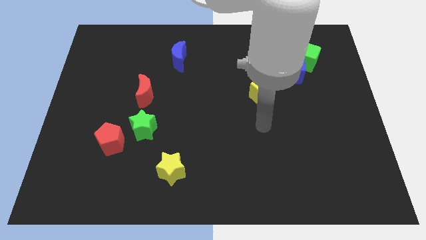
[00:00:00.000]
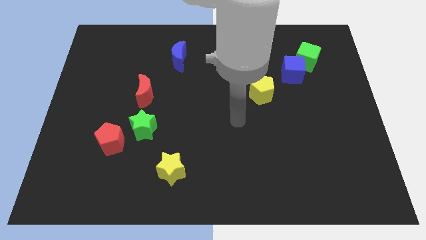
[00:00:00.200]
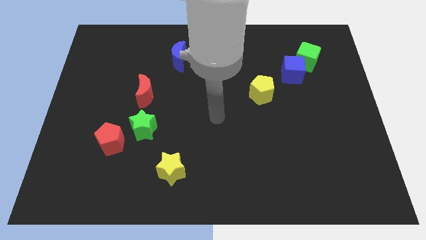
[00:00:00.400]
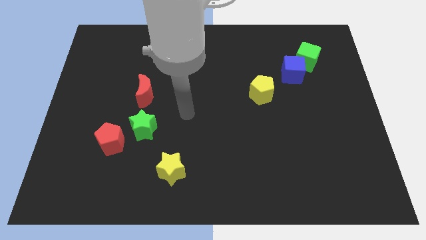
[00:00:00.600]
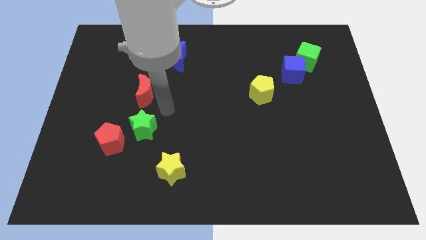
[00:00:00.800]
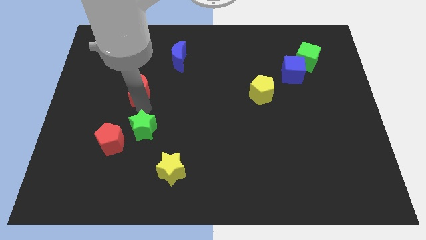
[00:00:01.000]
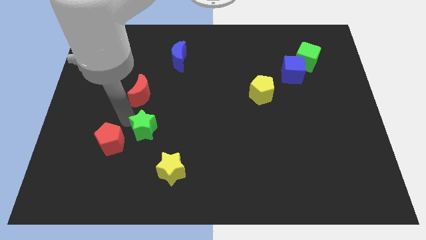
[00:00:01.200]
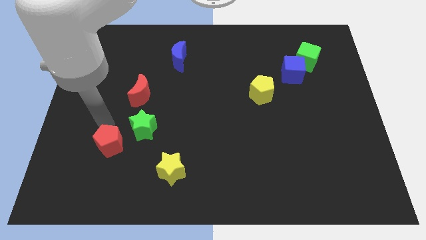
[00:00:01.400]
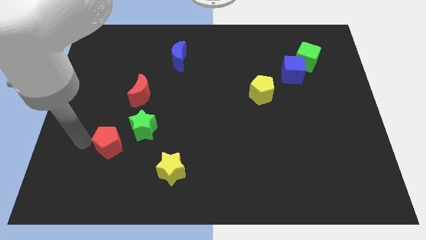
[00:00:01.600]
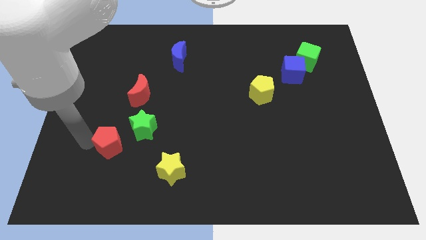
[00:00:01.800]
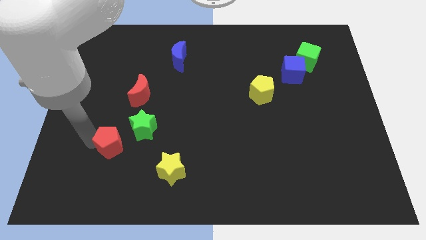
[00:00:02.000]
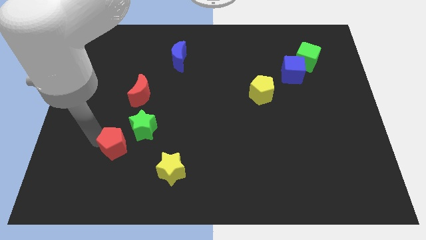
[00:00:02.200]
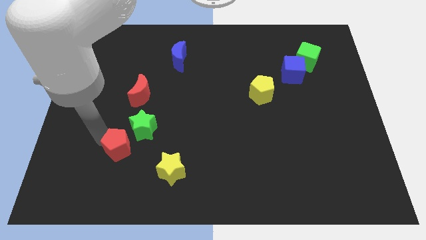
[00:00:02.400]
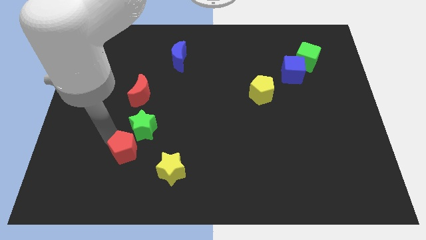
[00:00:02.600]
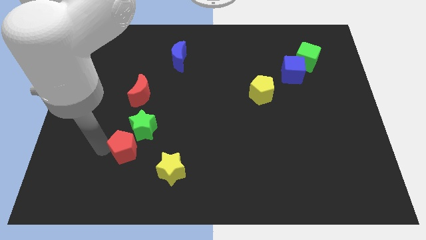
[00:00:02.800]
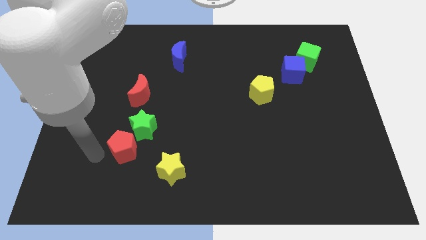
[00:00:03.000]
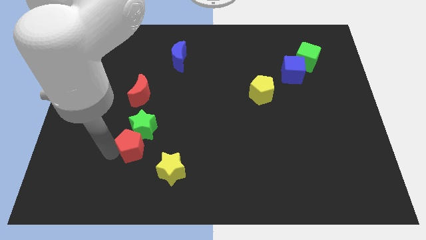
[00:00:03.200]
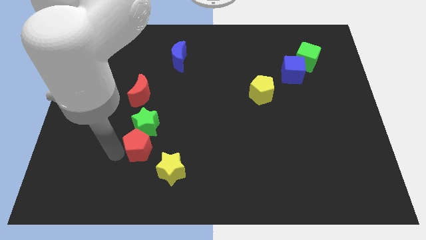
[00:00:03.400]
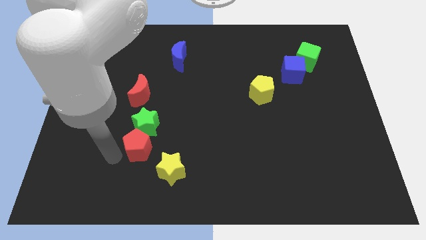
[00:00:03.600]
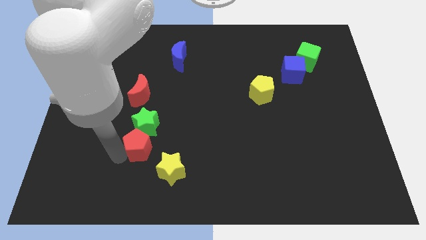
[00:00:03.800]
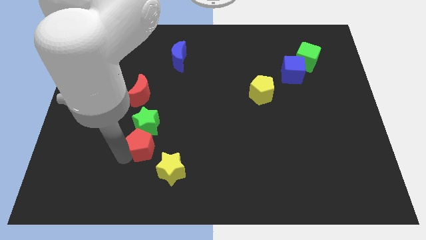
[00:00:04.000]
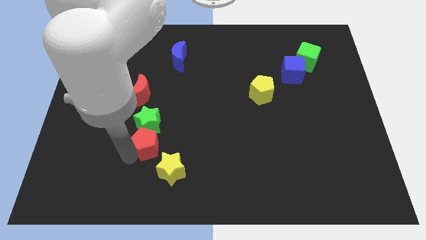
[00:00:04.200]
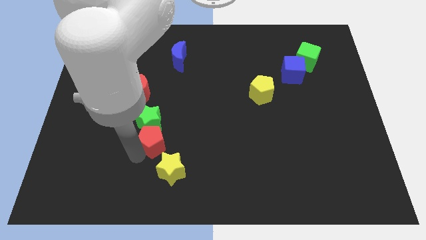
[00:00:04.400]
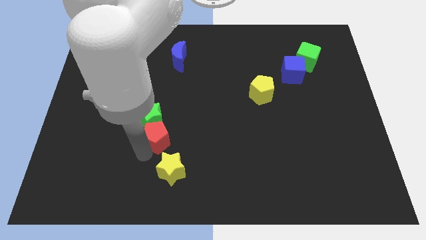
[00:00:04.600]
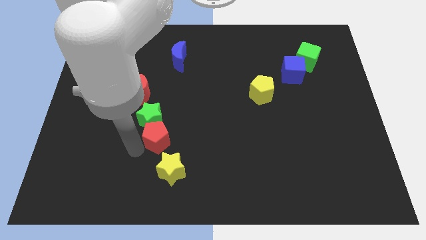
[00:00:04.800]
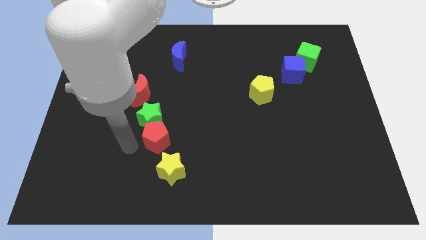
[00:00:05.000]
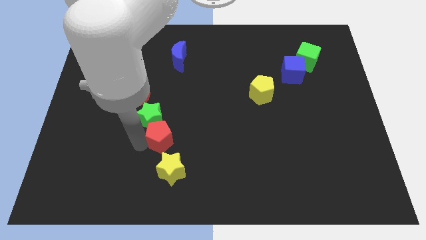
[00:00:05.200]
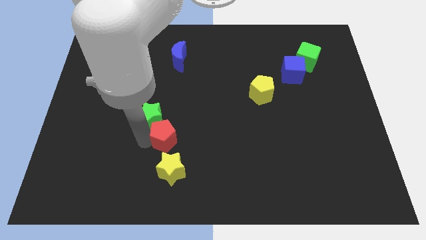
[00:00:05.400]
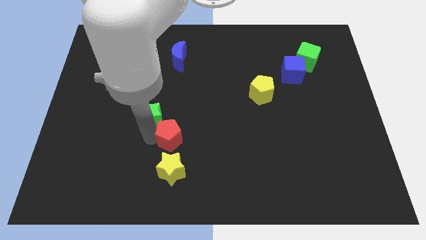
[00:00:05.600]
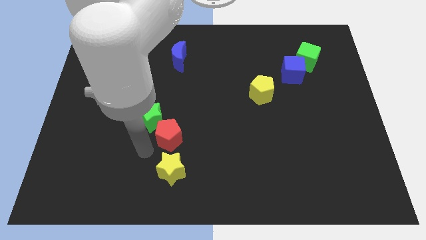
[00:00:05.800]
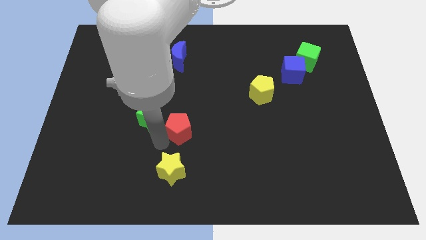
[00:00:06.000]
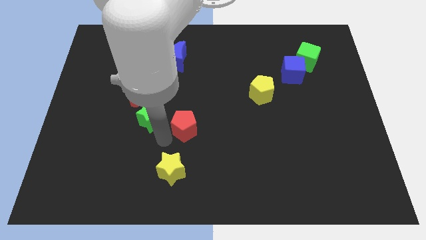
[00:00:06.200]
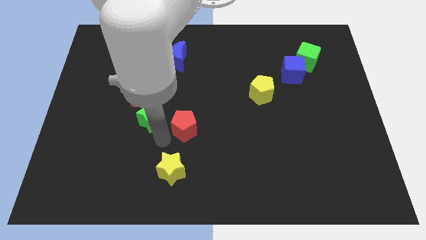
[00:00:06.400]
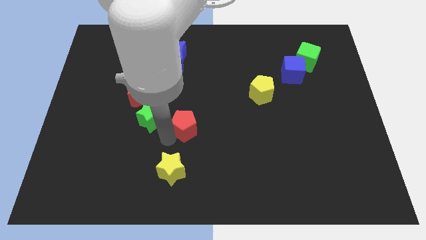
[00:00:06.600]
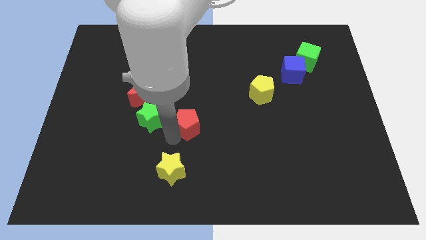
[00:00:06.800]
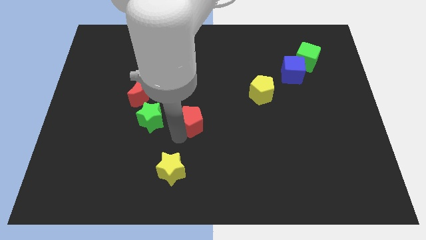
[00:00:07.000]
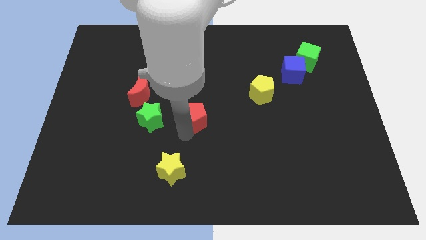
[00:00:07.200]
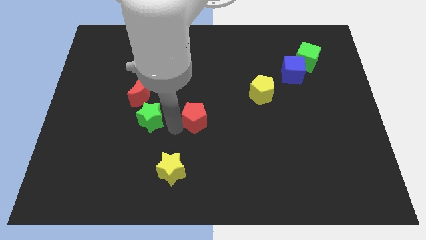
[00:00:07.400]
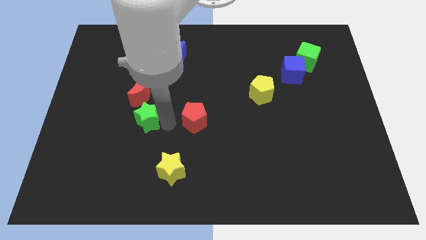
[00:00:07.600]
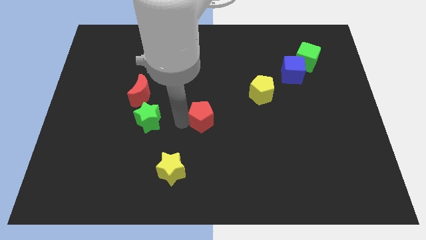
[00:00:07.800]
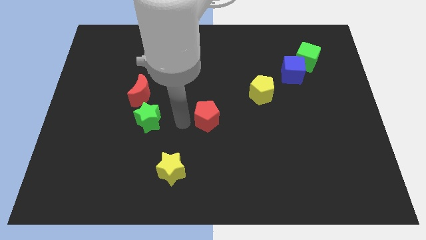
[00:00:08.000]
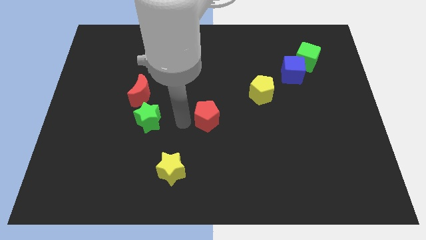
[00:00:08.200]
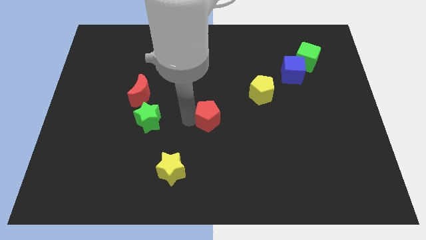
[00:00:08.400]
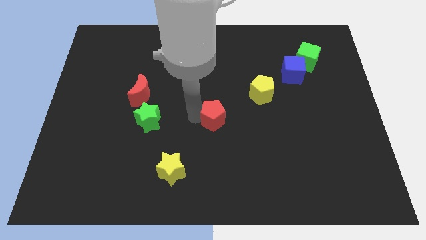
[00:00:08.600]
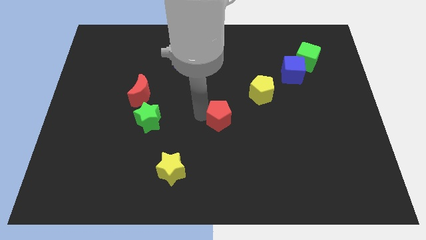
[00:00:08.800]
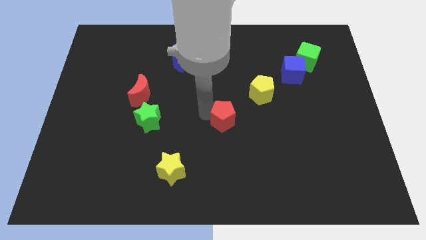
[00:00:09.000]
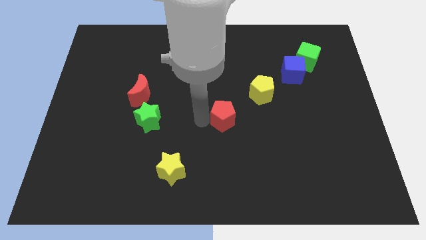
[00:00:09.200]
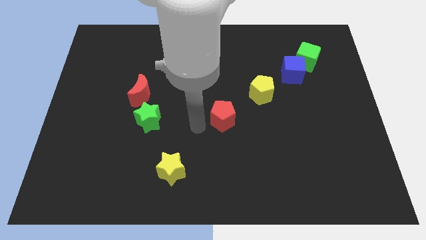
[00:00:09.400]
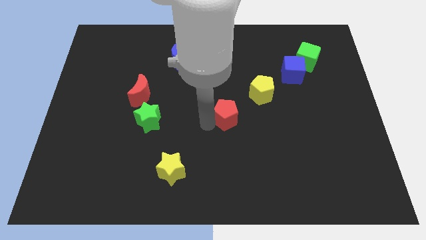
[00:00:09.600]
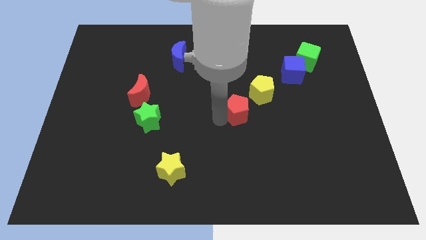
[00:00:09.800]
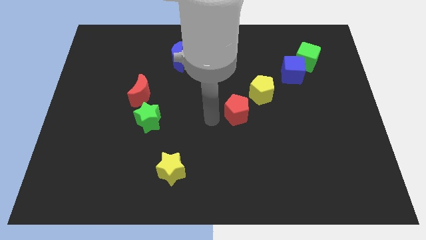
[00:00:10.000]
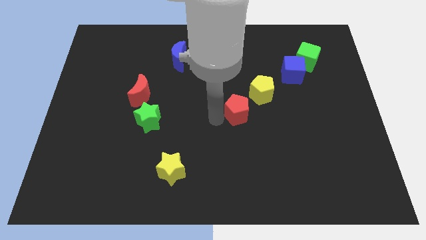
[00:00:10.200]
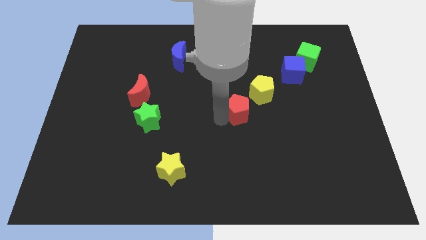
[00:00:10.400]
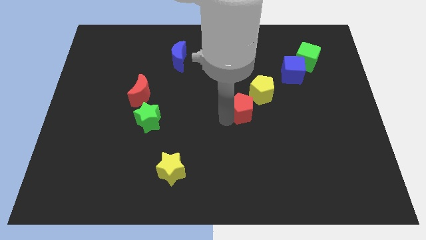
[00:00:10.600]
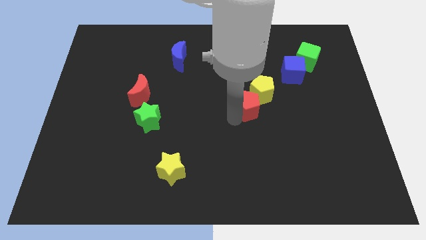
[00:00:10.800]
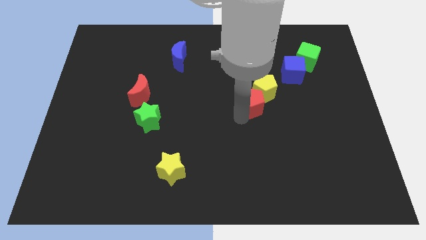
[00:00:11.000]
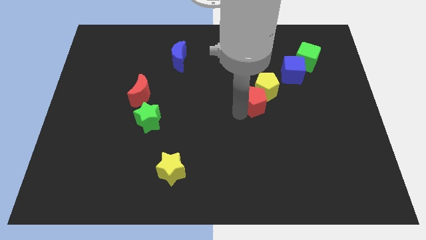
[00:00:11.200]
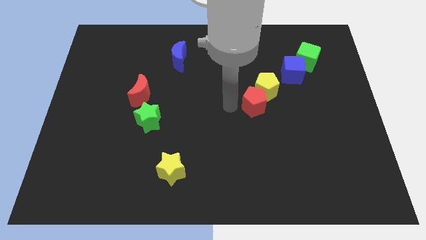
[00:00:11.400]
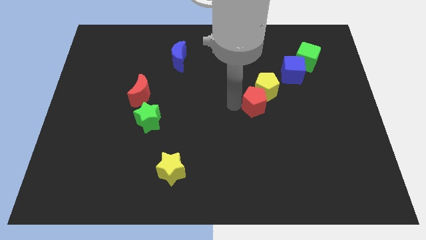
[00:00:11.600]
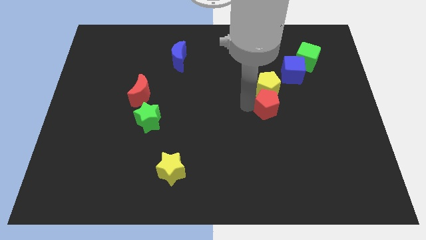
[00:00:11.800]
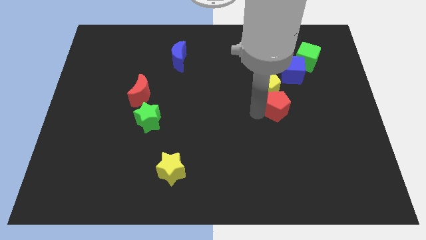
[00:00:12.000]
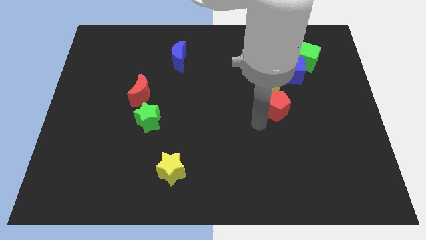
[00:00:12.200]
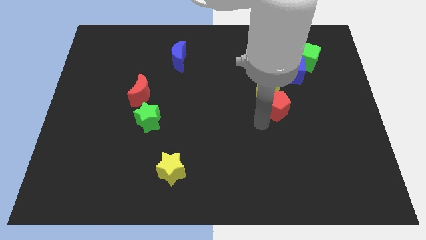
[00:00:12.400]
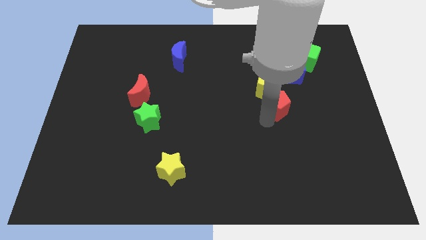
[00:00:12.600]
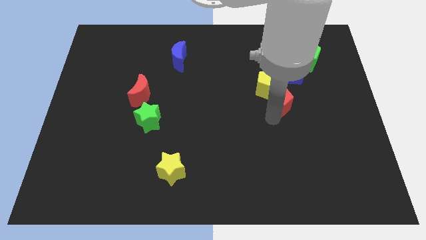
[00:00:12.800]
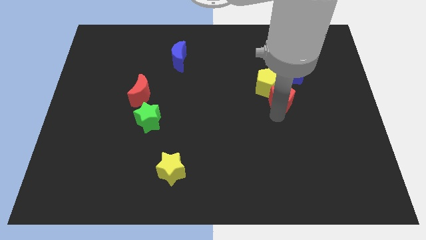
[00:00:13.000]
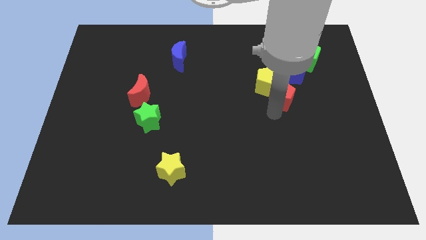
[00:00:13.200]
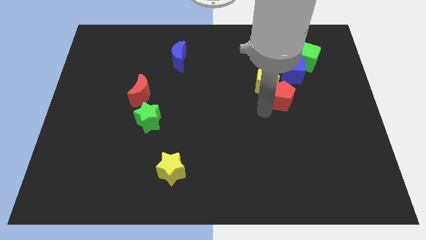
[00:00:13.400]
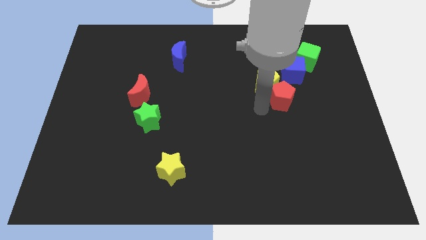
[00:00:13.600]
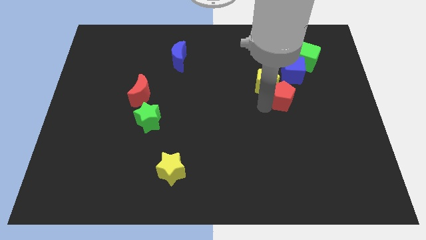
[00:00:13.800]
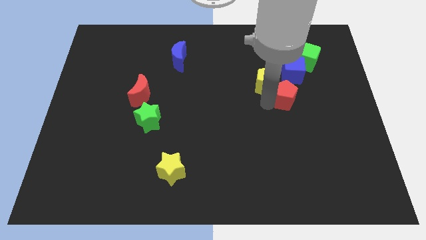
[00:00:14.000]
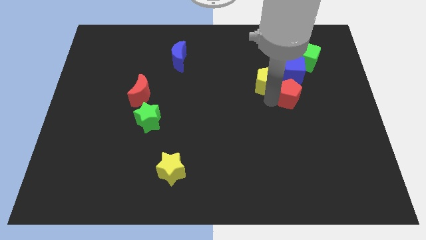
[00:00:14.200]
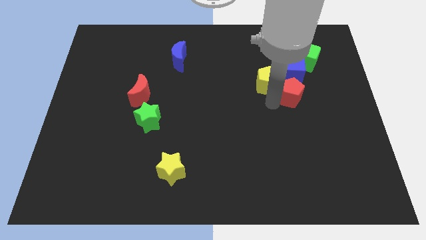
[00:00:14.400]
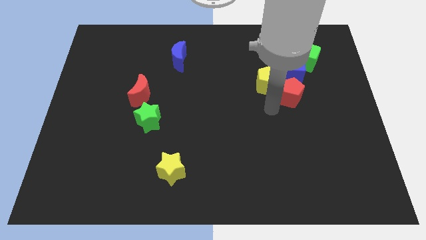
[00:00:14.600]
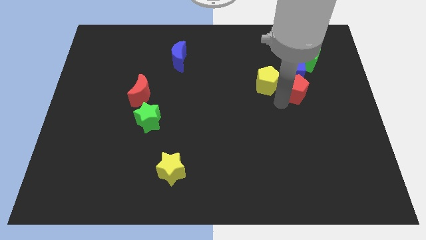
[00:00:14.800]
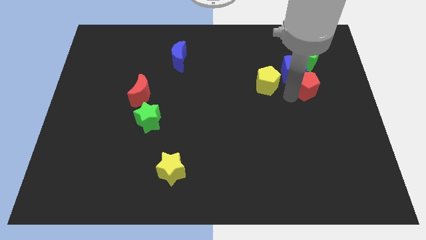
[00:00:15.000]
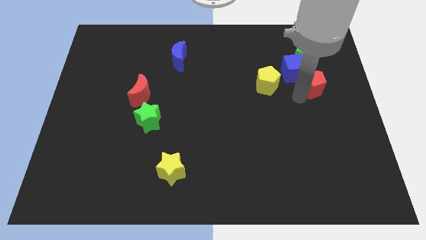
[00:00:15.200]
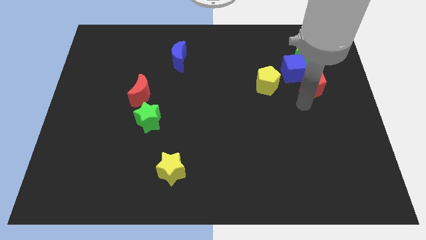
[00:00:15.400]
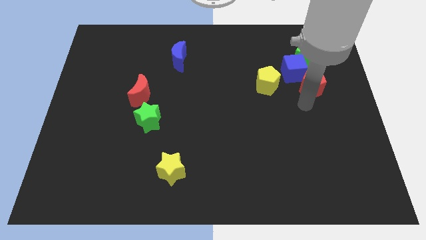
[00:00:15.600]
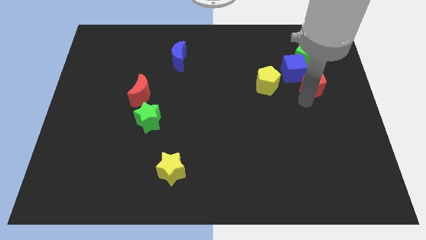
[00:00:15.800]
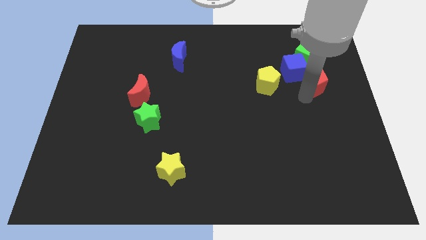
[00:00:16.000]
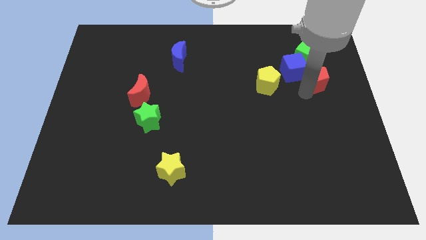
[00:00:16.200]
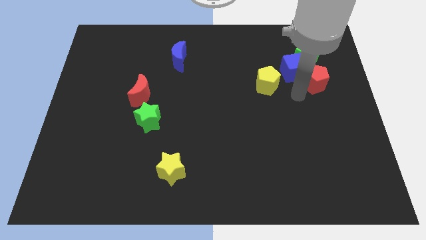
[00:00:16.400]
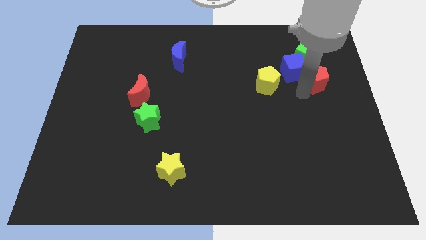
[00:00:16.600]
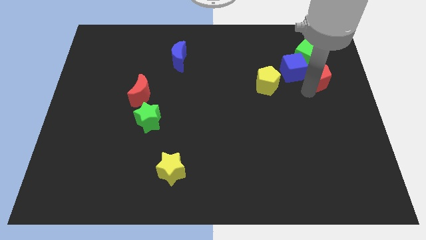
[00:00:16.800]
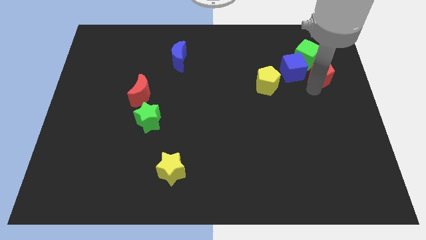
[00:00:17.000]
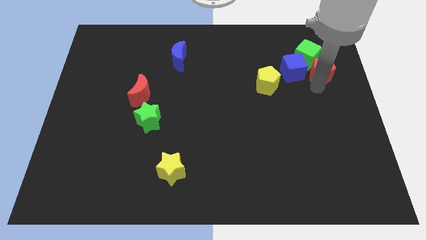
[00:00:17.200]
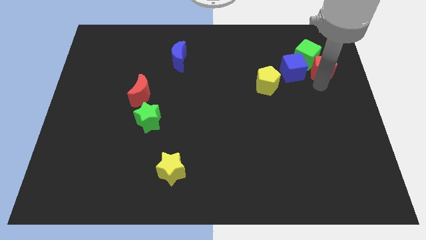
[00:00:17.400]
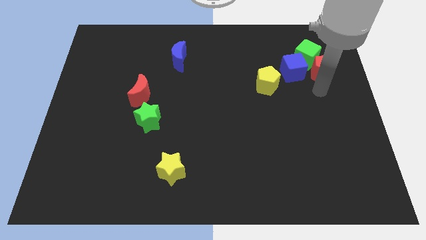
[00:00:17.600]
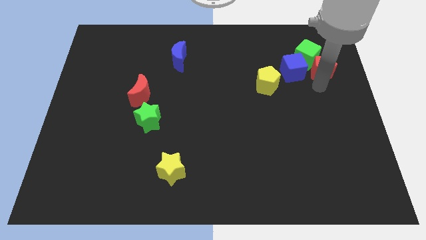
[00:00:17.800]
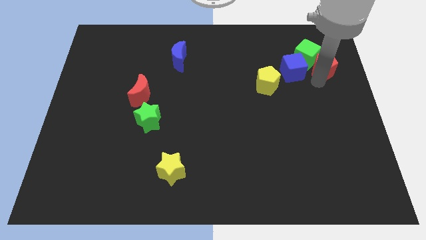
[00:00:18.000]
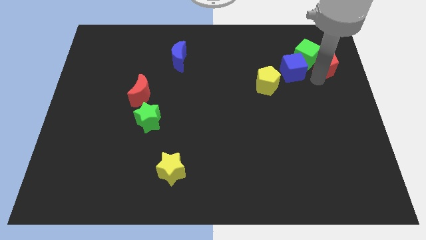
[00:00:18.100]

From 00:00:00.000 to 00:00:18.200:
move the red pentagon diagonally up and to the right of the blue cube
